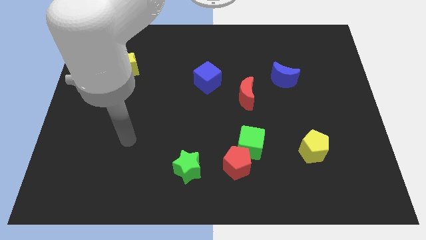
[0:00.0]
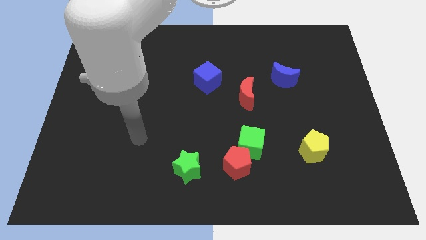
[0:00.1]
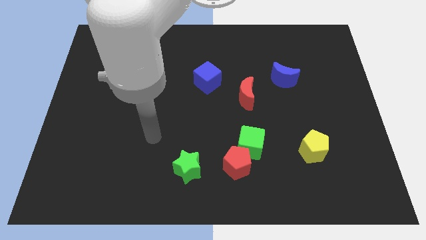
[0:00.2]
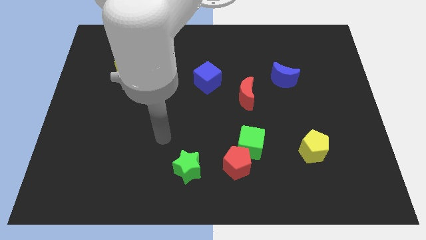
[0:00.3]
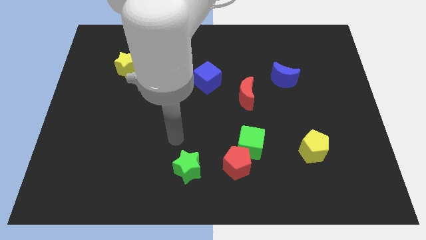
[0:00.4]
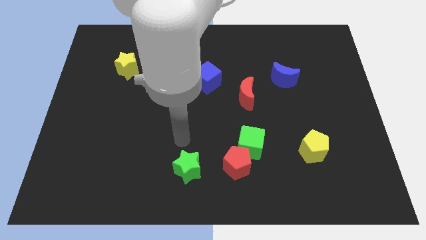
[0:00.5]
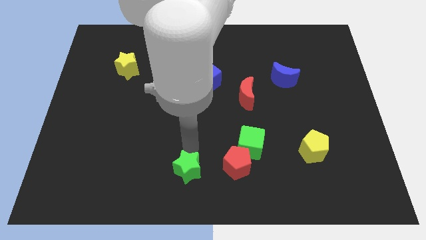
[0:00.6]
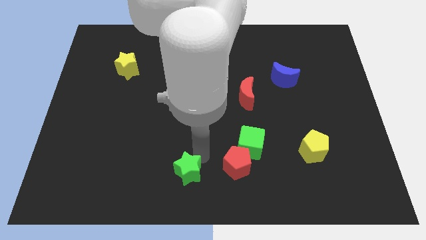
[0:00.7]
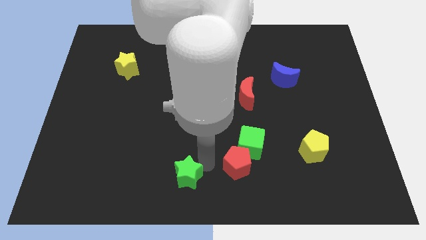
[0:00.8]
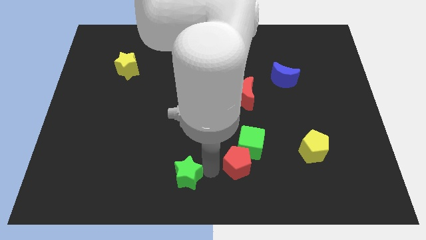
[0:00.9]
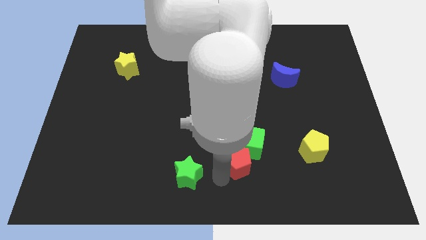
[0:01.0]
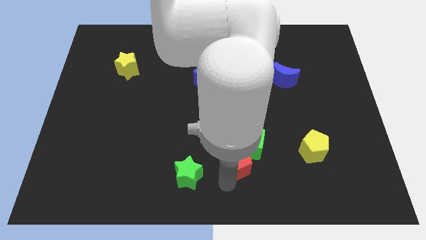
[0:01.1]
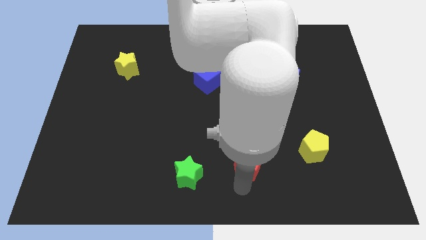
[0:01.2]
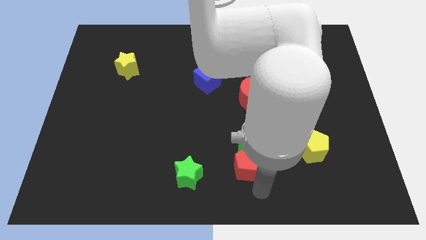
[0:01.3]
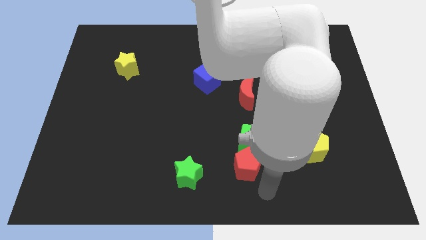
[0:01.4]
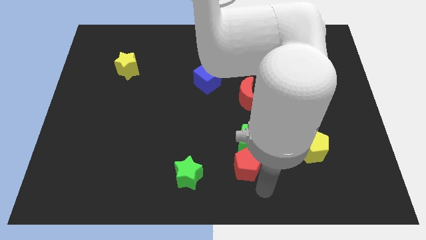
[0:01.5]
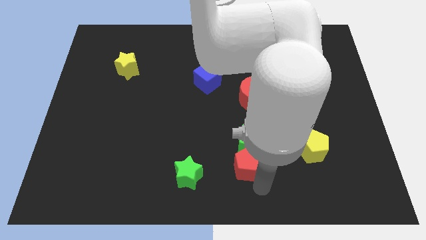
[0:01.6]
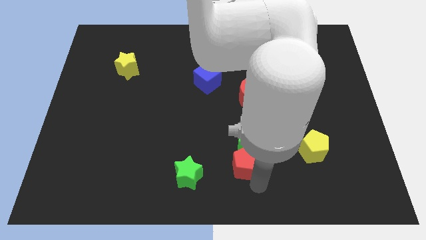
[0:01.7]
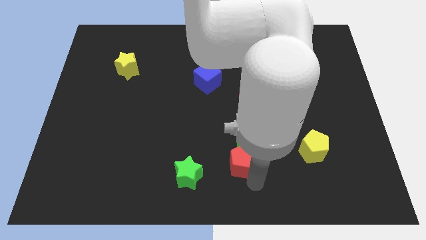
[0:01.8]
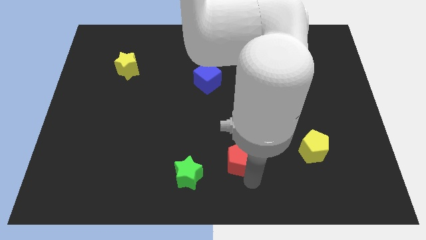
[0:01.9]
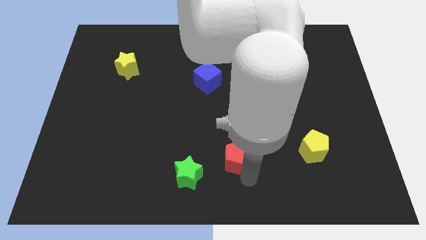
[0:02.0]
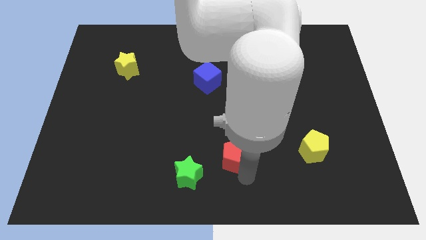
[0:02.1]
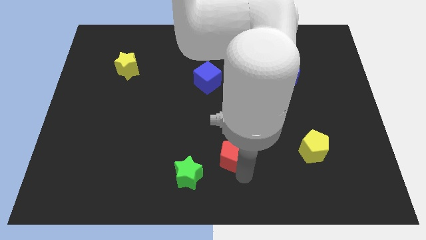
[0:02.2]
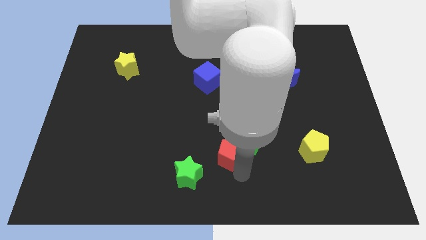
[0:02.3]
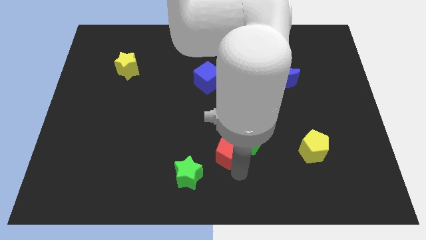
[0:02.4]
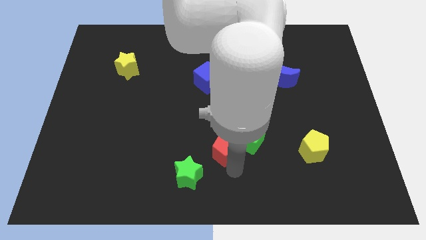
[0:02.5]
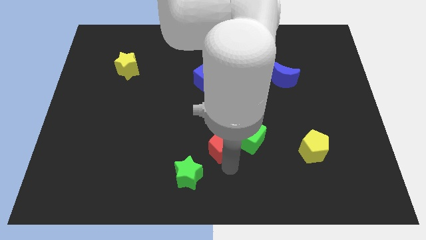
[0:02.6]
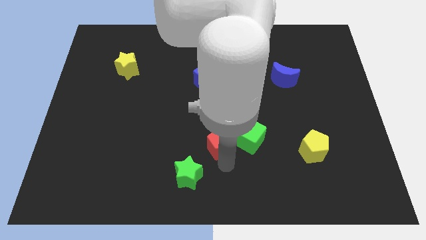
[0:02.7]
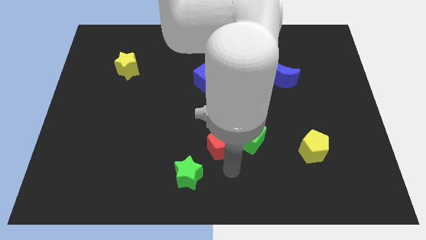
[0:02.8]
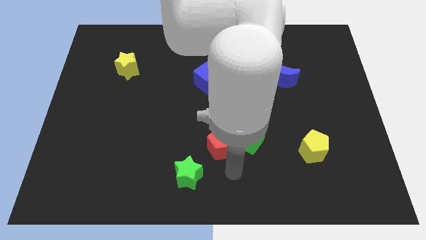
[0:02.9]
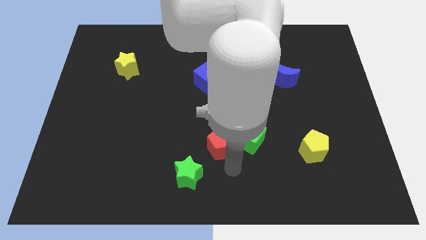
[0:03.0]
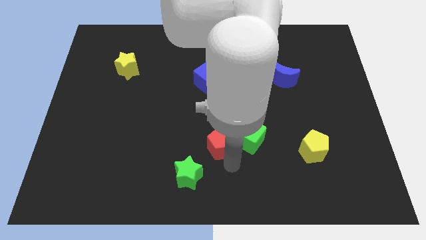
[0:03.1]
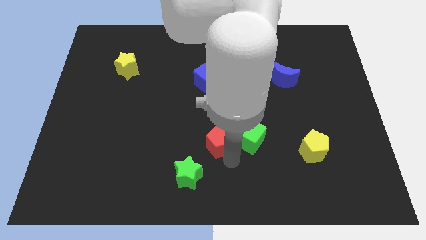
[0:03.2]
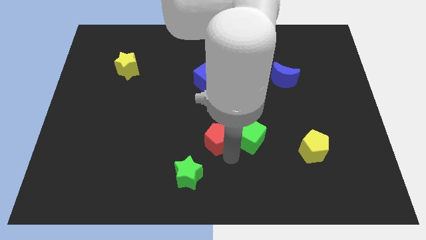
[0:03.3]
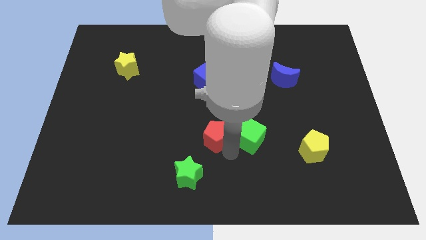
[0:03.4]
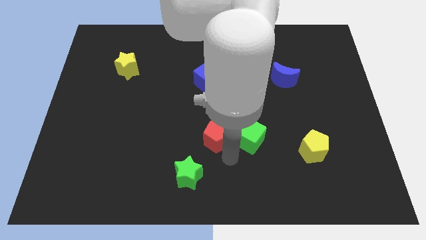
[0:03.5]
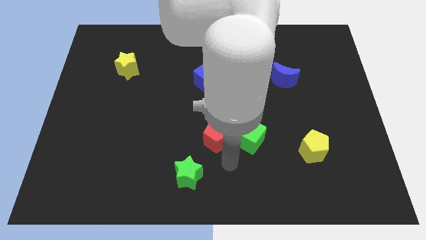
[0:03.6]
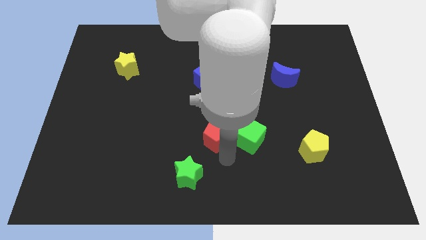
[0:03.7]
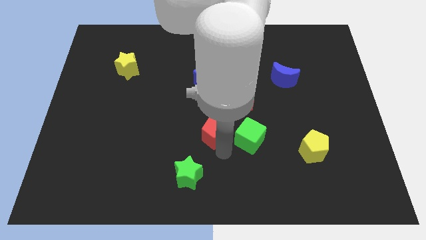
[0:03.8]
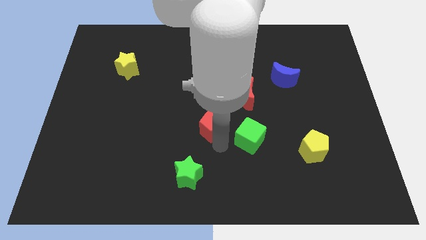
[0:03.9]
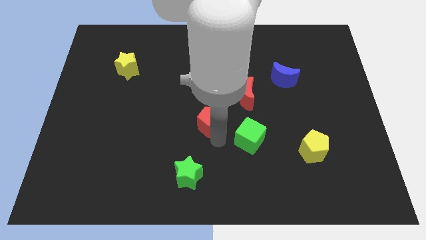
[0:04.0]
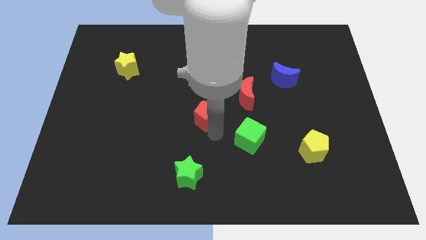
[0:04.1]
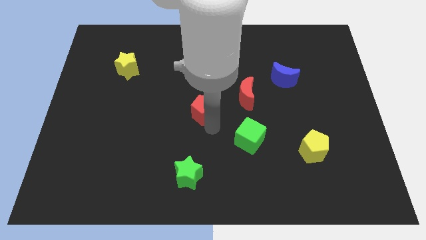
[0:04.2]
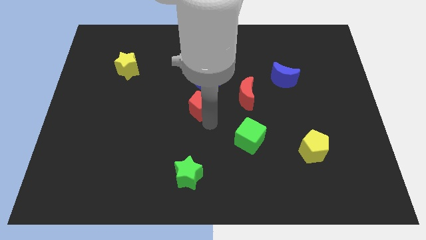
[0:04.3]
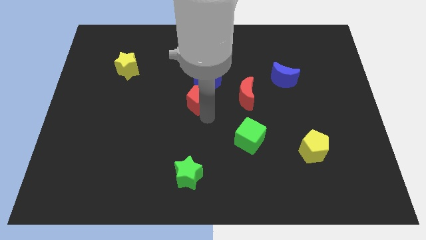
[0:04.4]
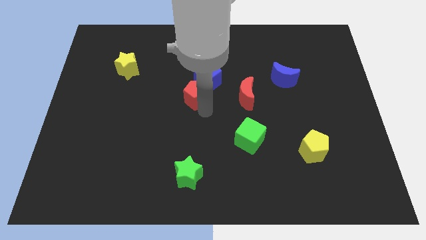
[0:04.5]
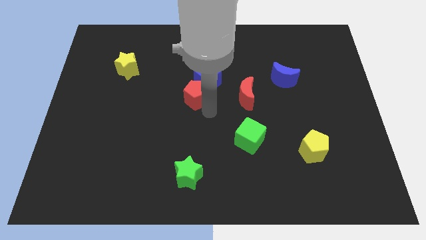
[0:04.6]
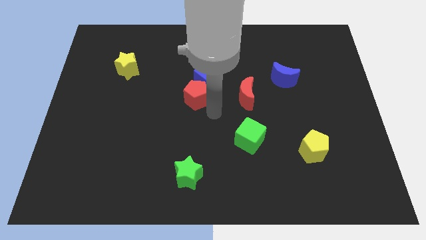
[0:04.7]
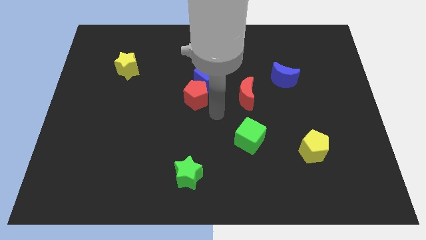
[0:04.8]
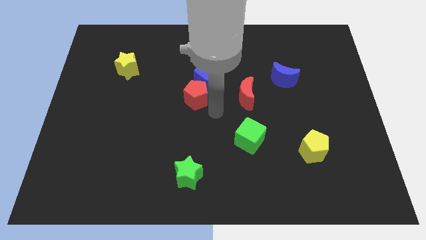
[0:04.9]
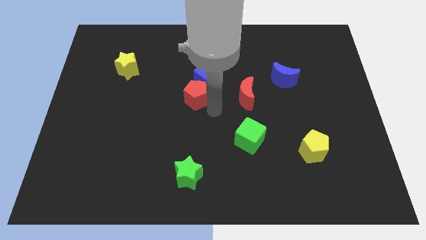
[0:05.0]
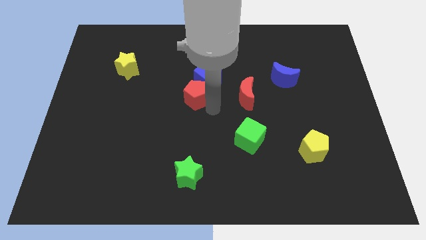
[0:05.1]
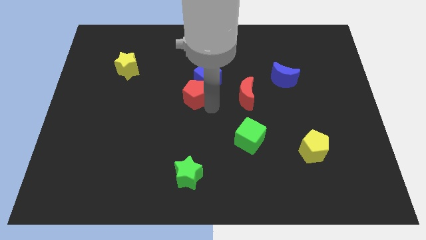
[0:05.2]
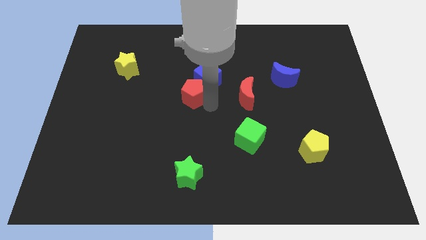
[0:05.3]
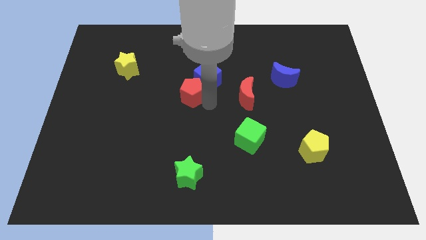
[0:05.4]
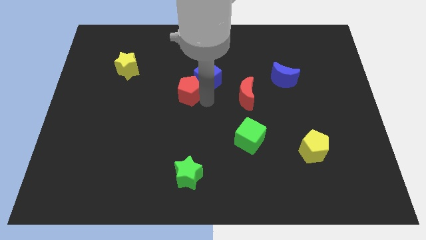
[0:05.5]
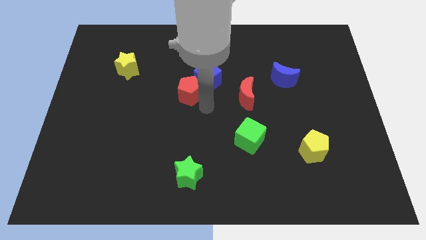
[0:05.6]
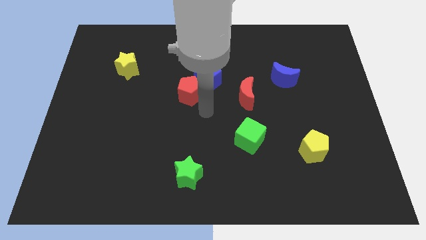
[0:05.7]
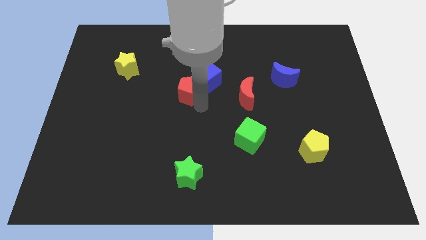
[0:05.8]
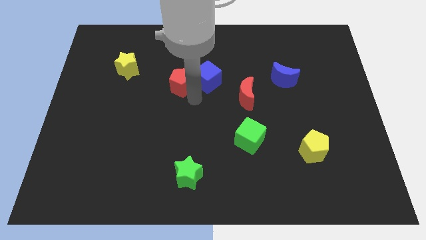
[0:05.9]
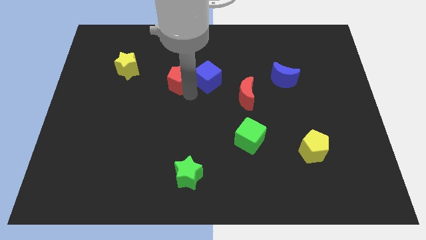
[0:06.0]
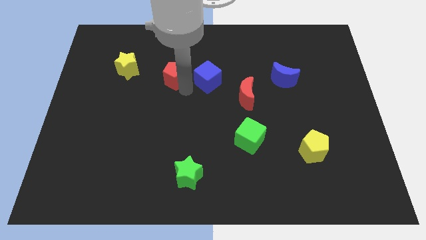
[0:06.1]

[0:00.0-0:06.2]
push the red pentagon to the right side of the yellow star
